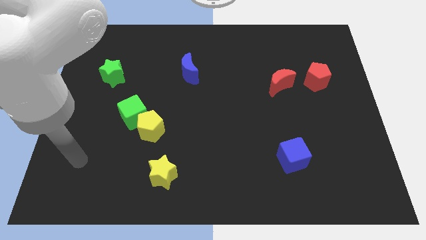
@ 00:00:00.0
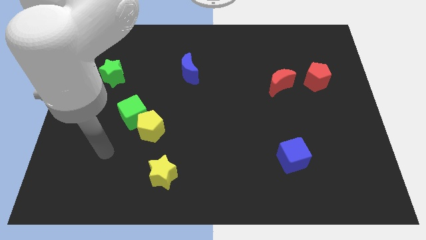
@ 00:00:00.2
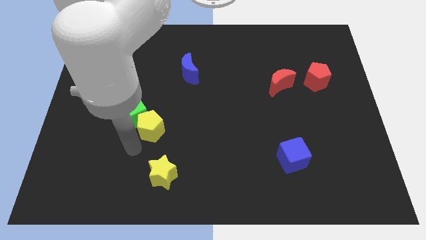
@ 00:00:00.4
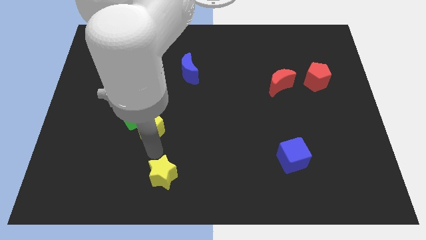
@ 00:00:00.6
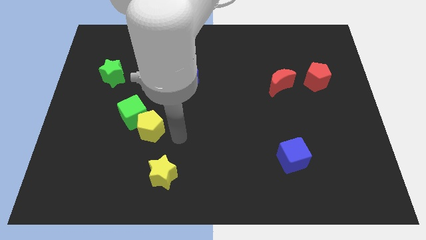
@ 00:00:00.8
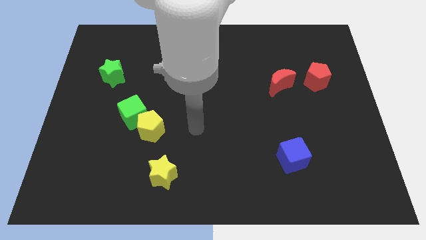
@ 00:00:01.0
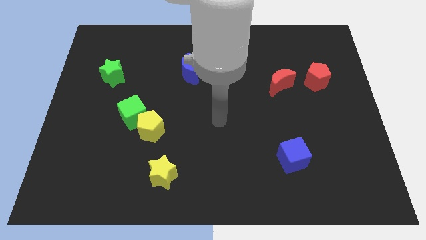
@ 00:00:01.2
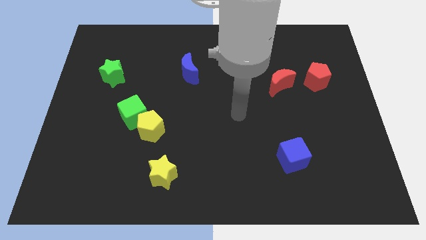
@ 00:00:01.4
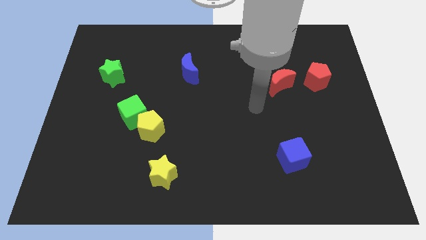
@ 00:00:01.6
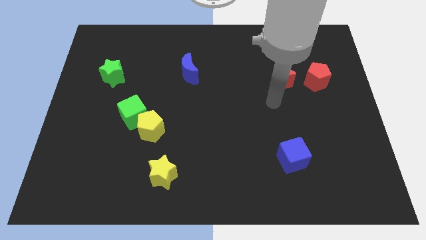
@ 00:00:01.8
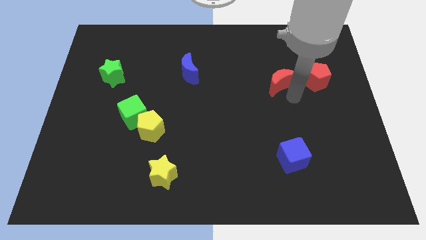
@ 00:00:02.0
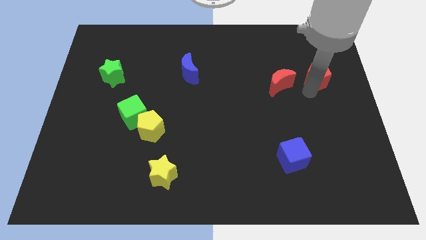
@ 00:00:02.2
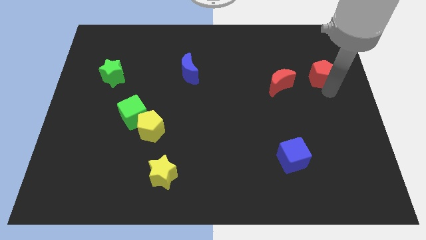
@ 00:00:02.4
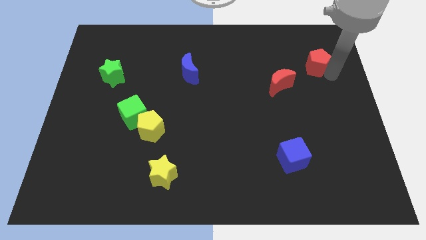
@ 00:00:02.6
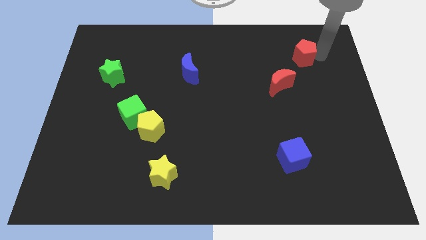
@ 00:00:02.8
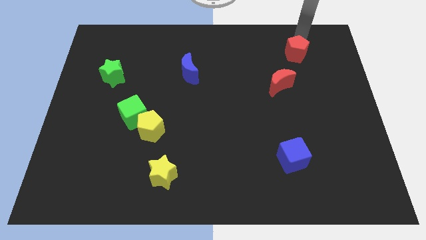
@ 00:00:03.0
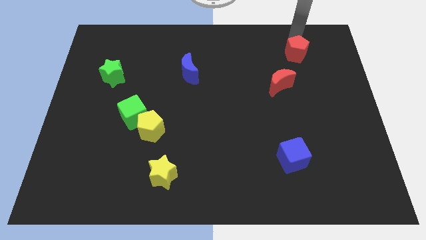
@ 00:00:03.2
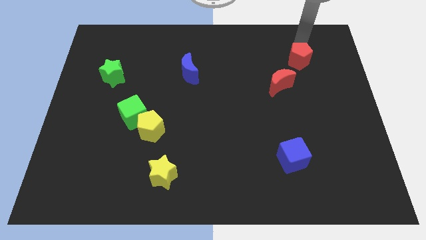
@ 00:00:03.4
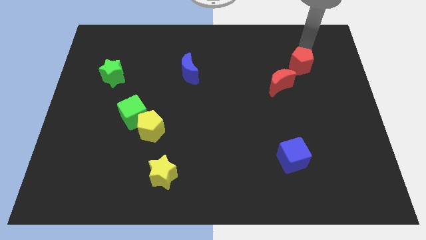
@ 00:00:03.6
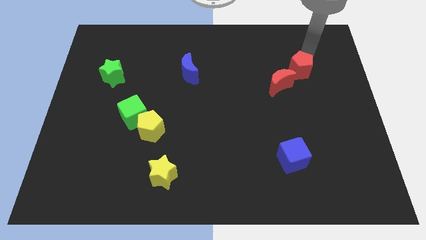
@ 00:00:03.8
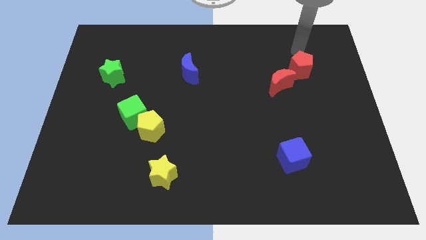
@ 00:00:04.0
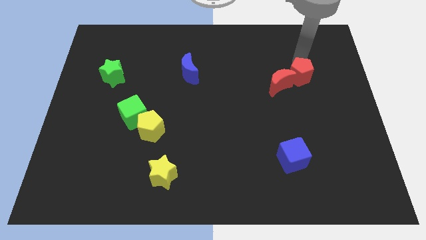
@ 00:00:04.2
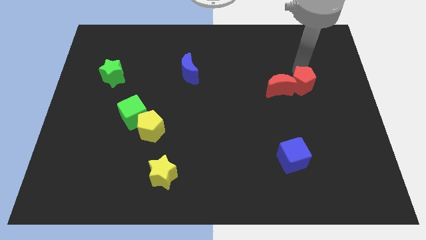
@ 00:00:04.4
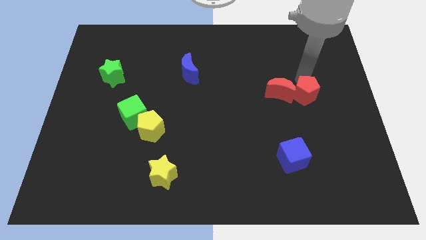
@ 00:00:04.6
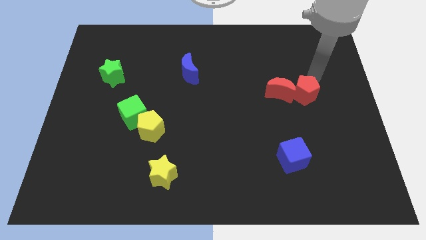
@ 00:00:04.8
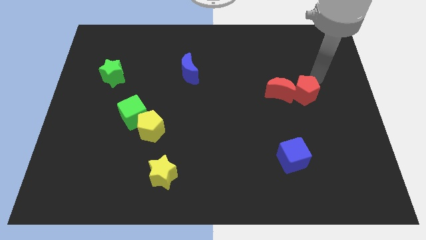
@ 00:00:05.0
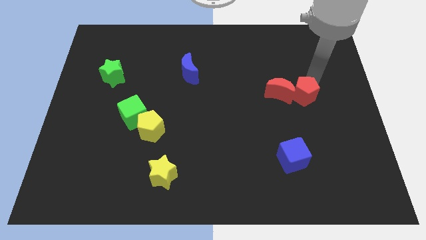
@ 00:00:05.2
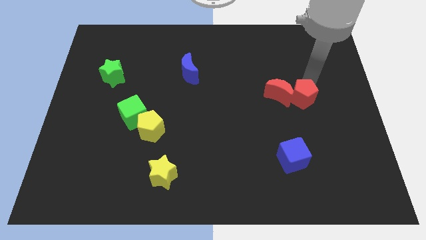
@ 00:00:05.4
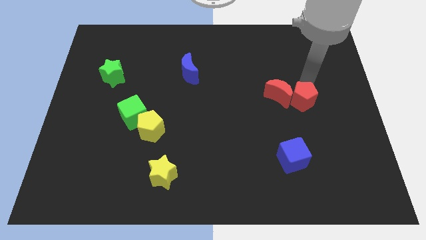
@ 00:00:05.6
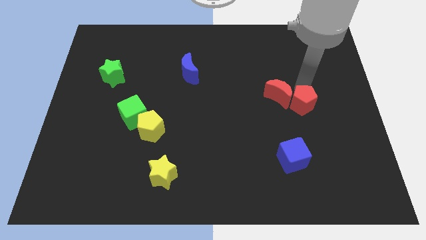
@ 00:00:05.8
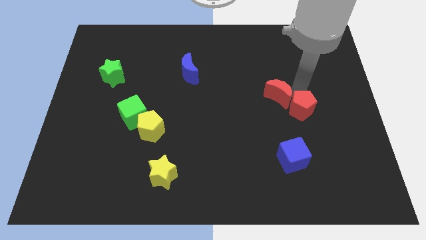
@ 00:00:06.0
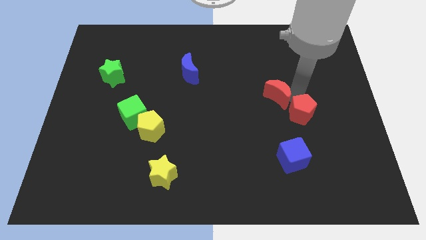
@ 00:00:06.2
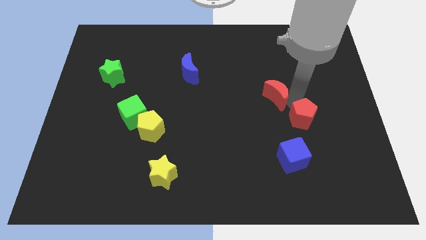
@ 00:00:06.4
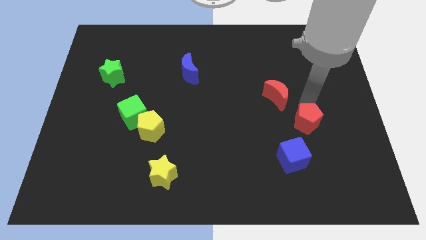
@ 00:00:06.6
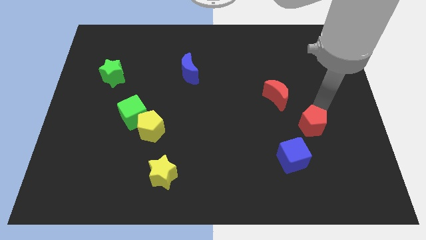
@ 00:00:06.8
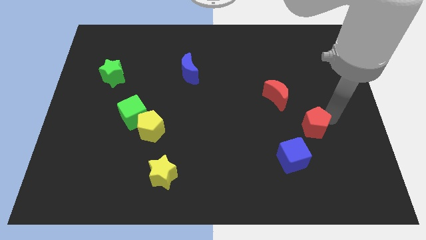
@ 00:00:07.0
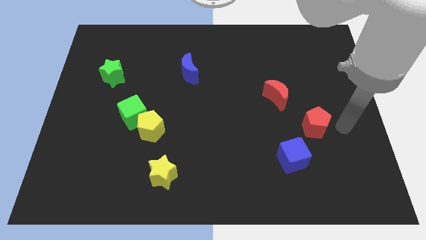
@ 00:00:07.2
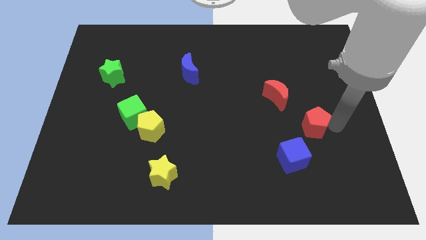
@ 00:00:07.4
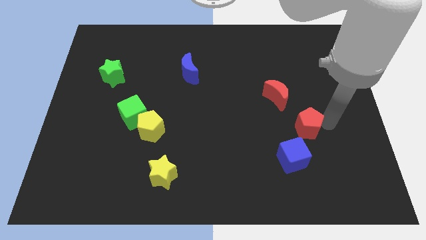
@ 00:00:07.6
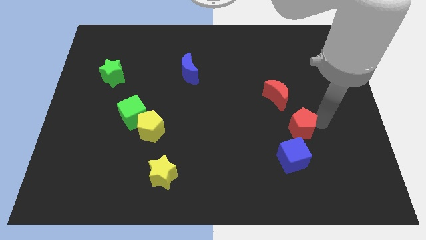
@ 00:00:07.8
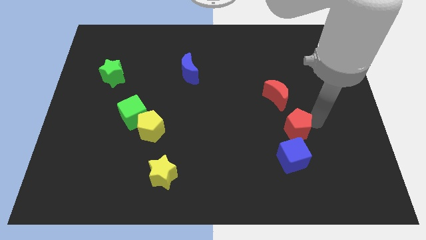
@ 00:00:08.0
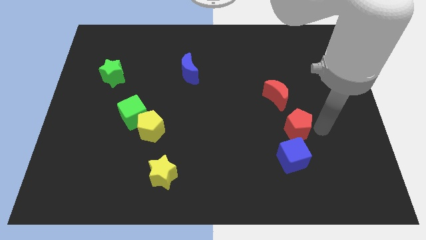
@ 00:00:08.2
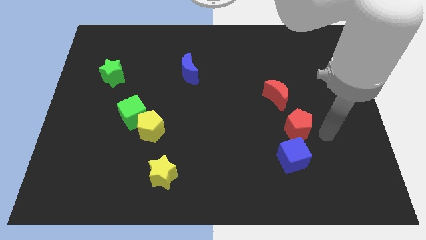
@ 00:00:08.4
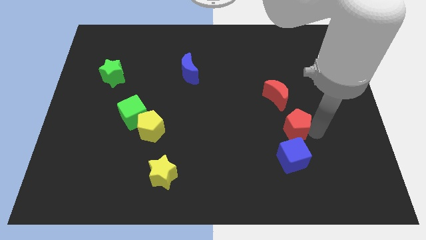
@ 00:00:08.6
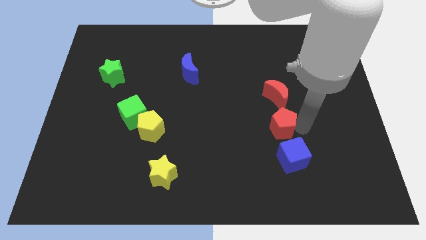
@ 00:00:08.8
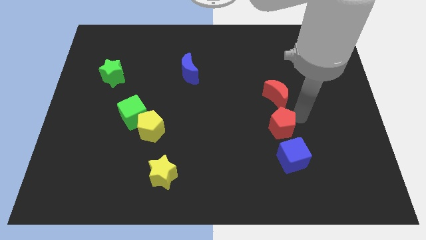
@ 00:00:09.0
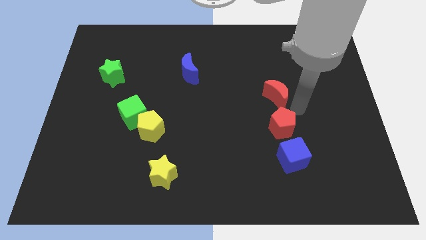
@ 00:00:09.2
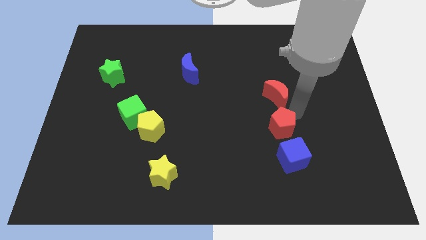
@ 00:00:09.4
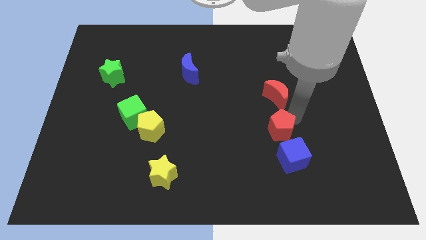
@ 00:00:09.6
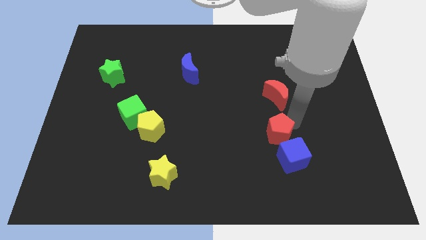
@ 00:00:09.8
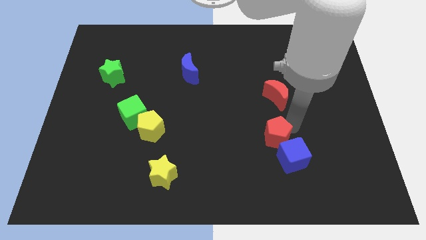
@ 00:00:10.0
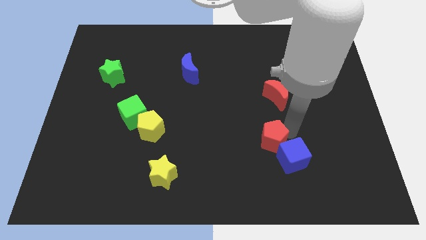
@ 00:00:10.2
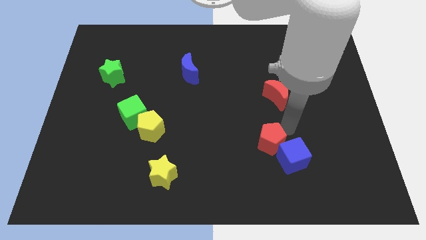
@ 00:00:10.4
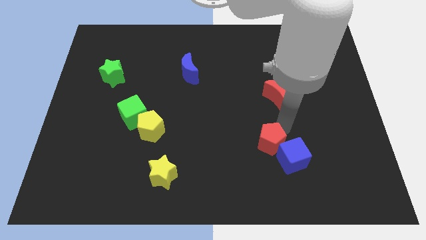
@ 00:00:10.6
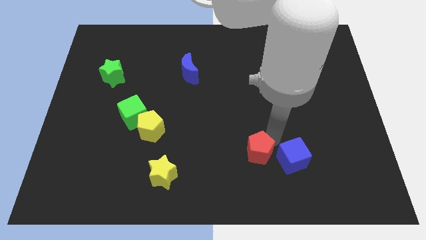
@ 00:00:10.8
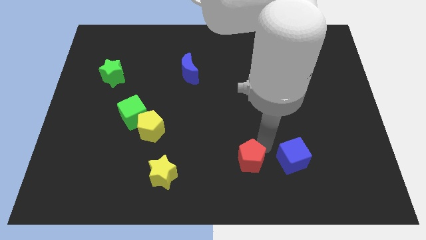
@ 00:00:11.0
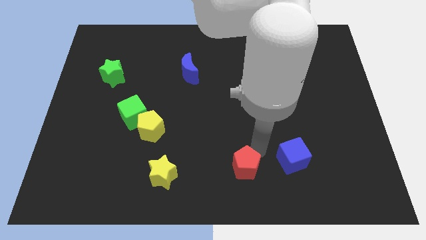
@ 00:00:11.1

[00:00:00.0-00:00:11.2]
slide the red pentagon to the bottom side
